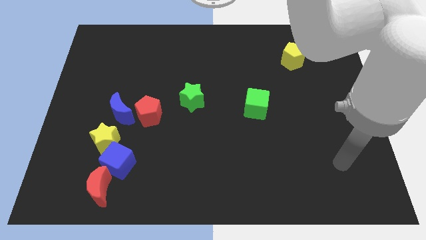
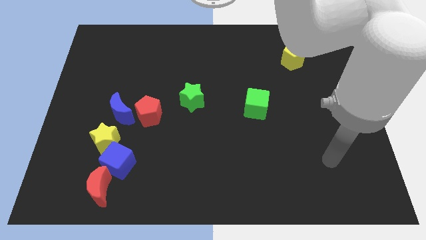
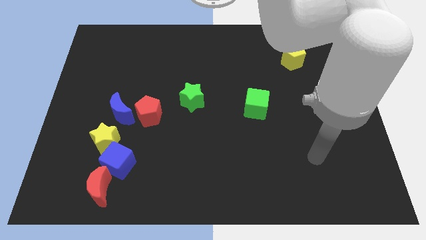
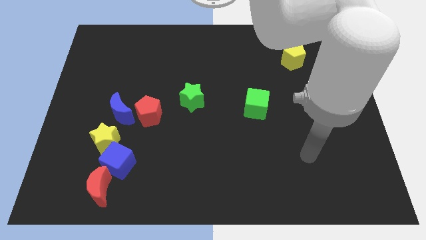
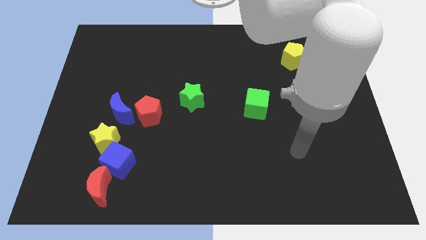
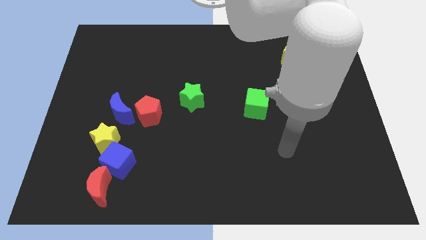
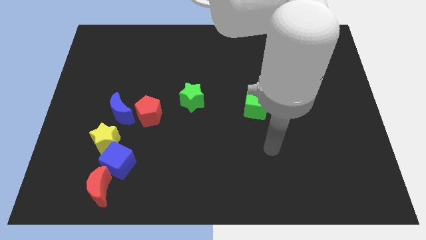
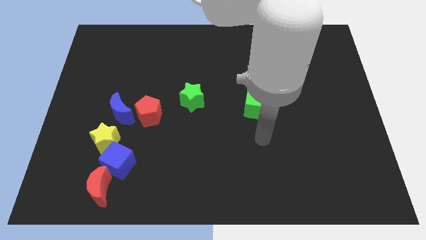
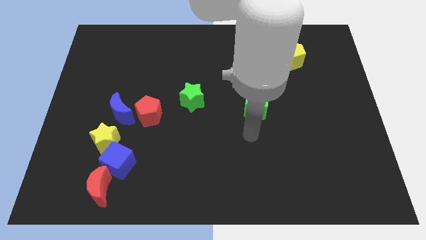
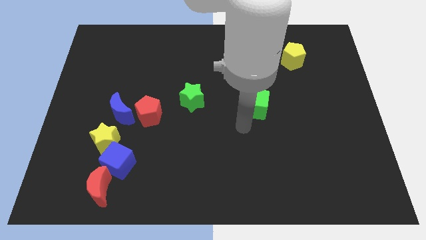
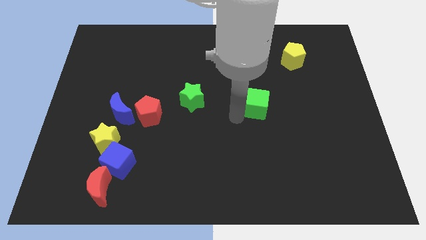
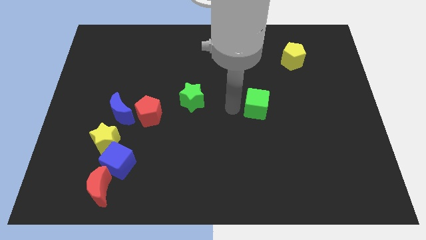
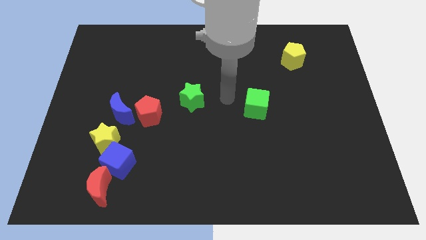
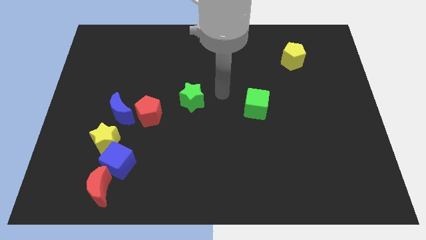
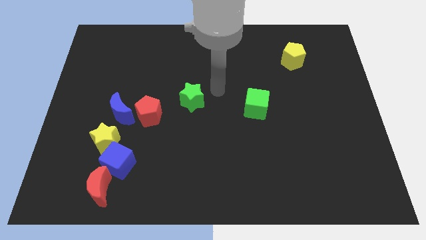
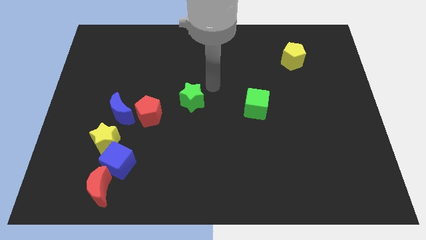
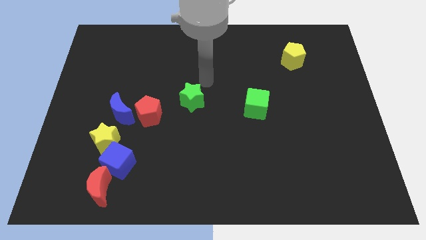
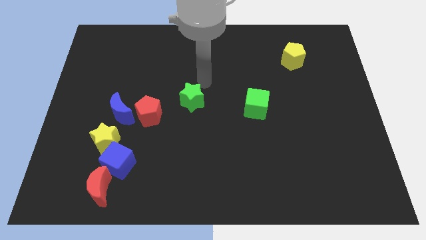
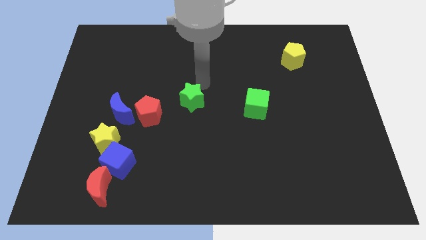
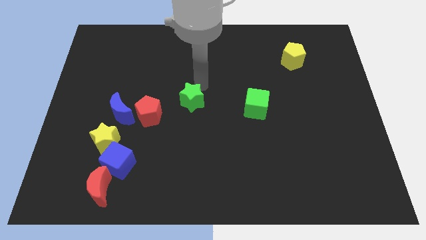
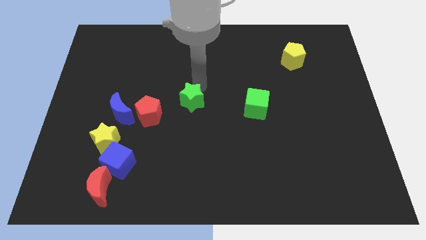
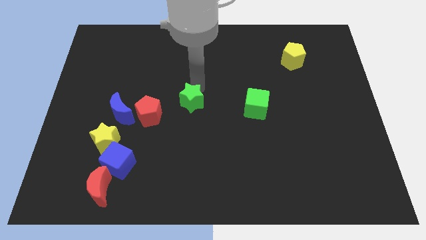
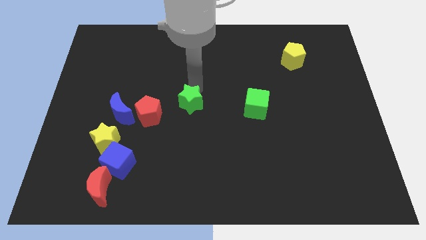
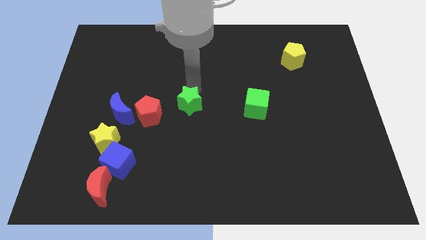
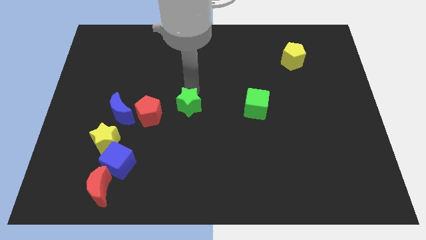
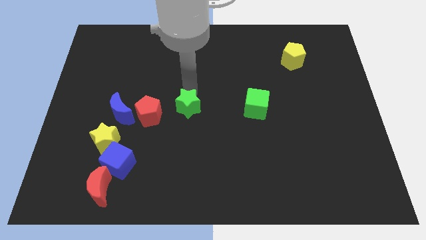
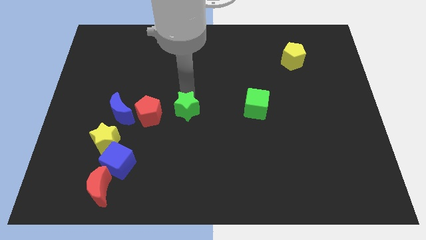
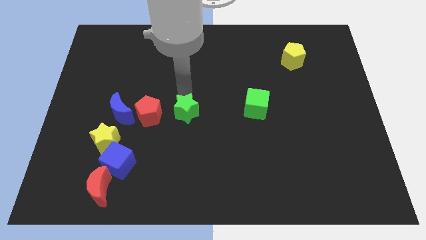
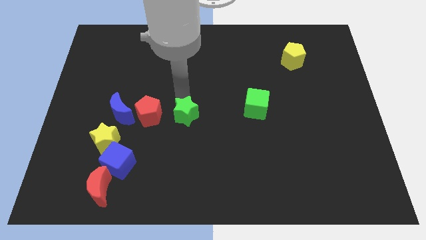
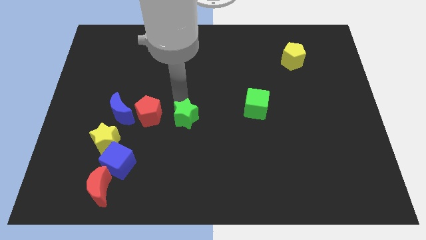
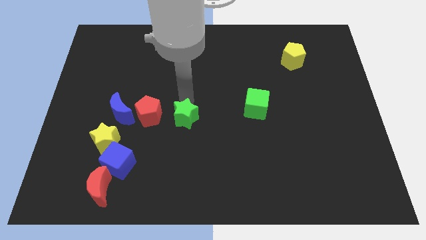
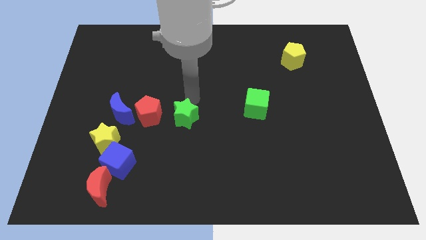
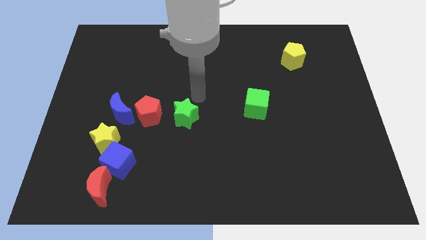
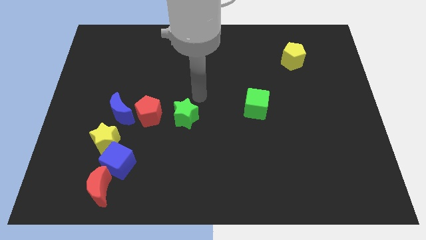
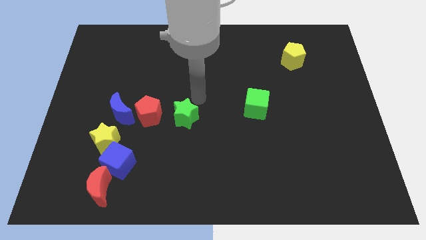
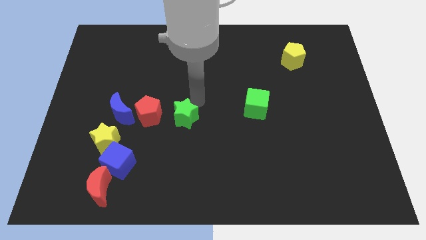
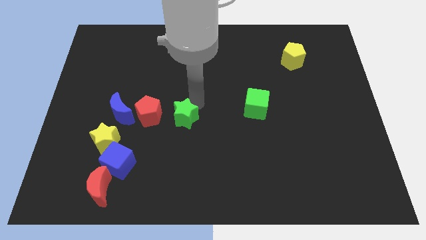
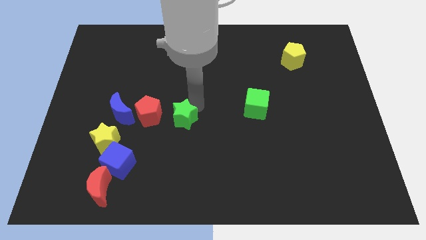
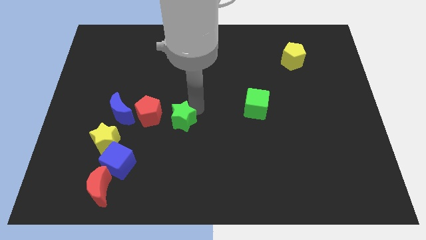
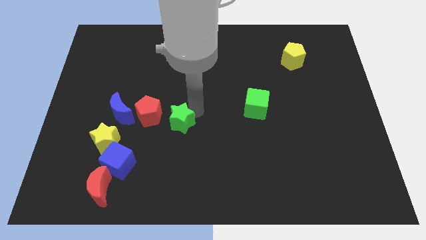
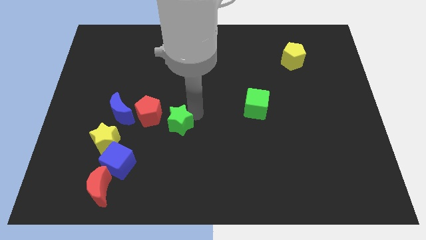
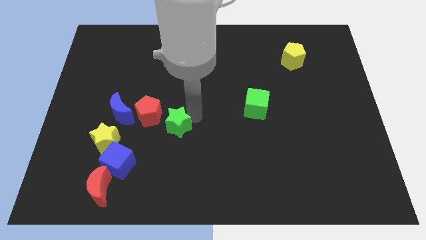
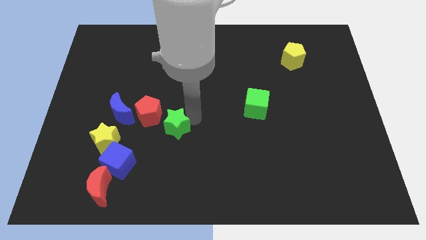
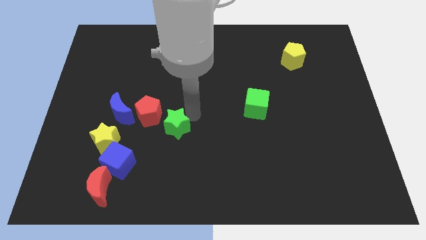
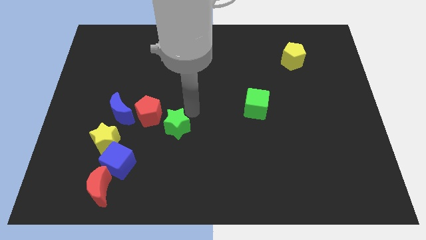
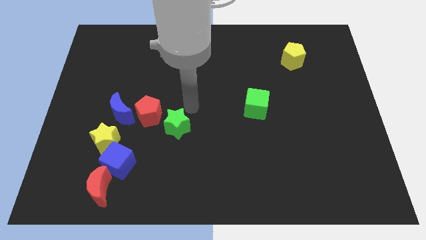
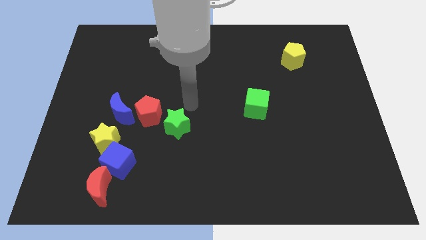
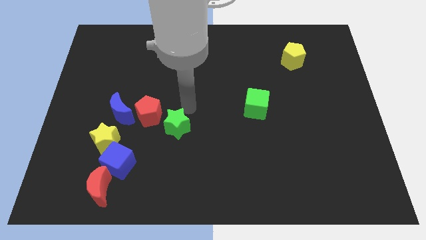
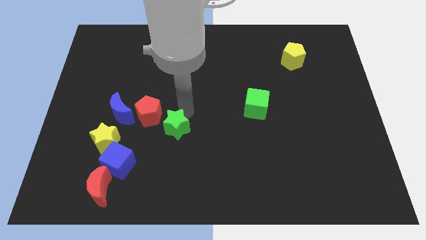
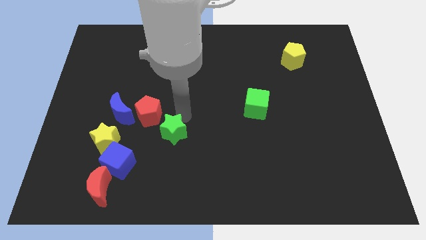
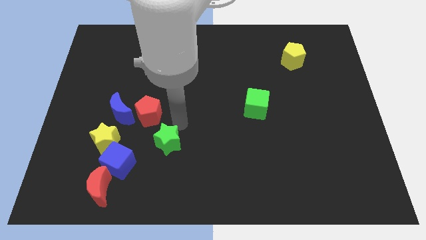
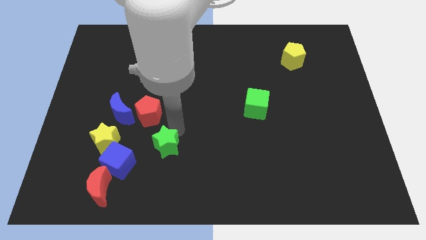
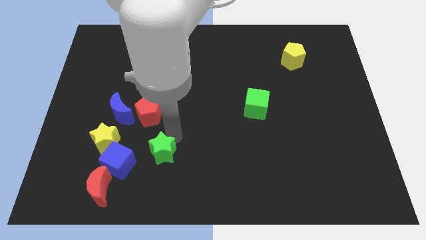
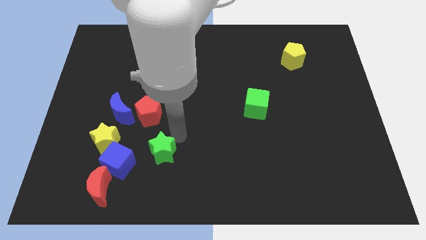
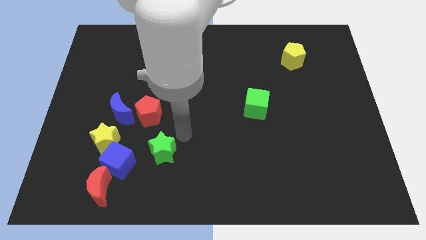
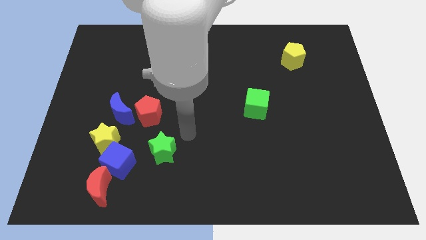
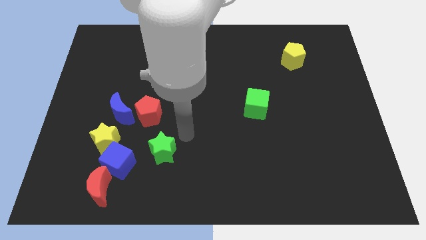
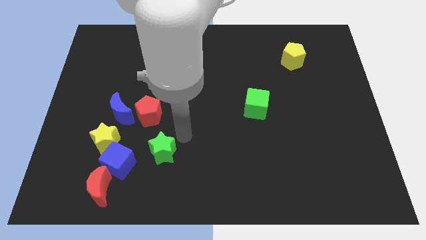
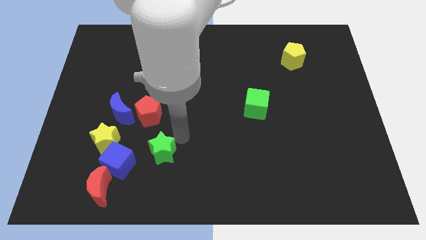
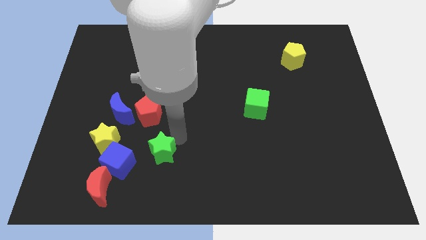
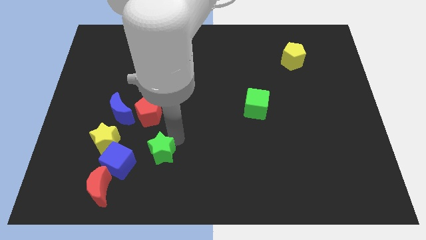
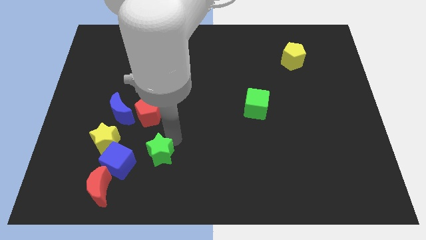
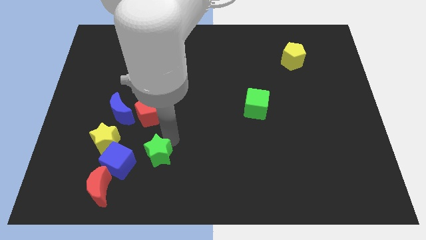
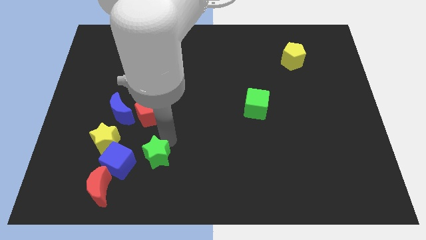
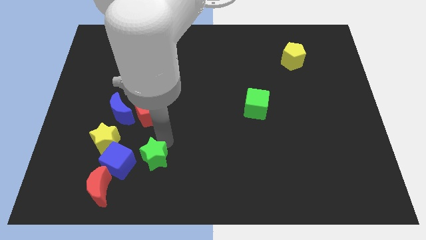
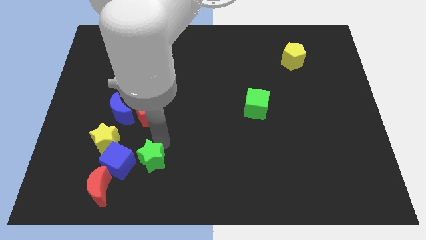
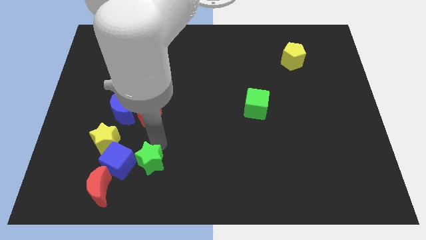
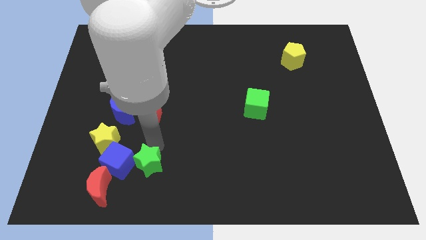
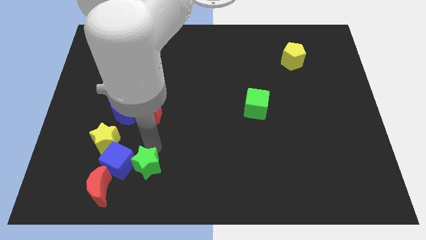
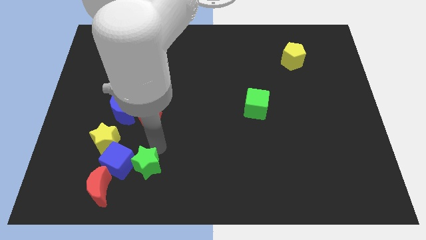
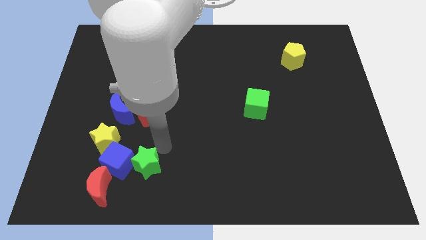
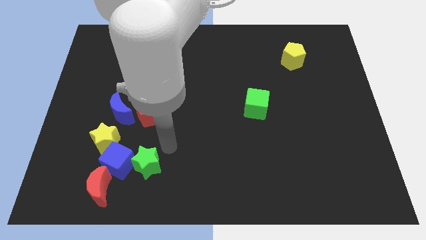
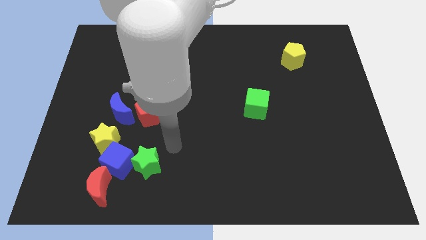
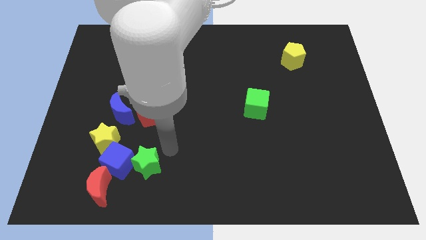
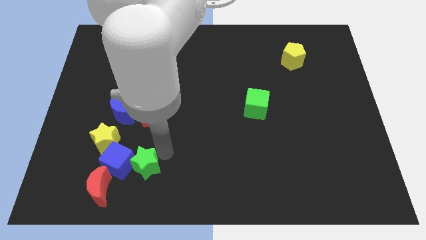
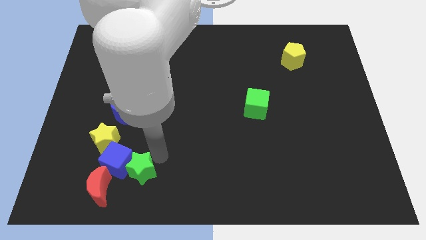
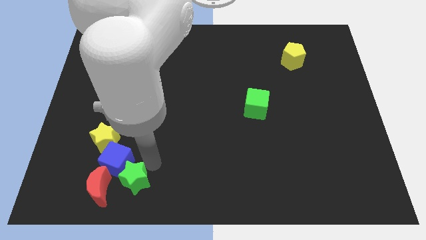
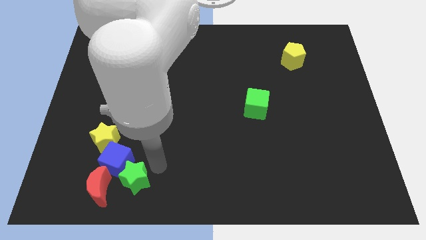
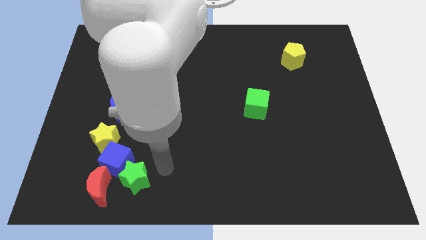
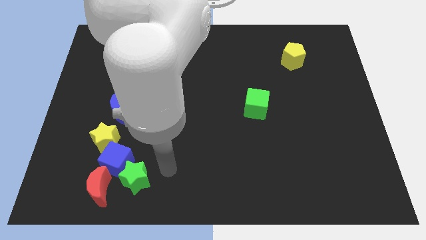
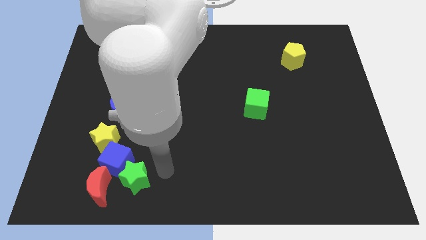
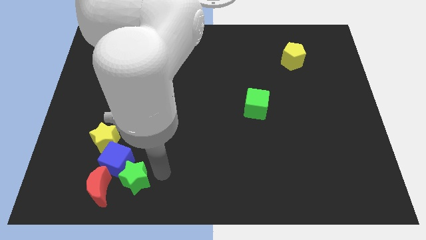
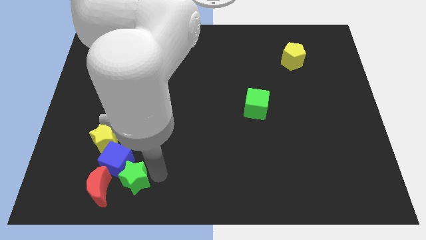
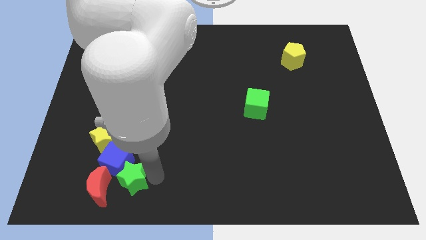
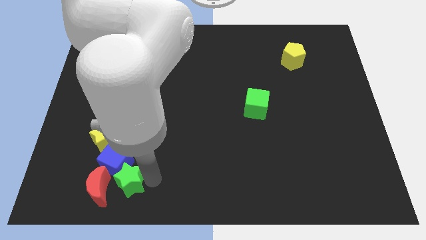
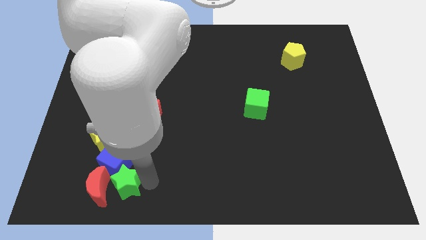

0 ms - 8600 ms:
slide the green star next to the red moon
